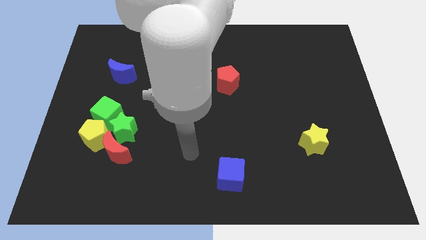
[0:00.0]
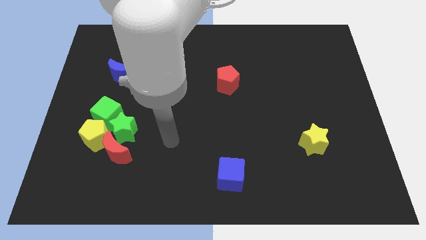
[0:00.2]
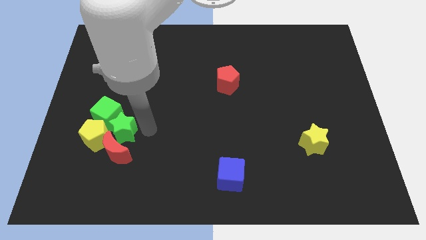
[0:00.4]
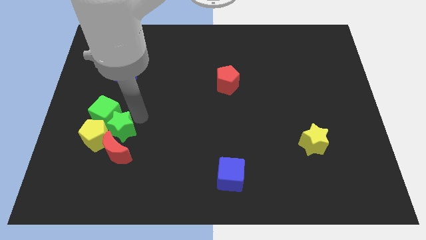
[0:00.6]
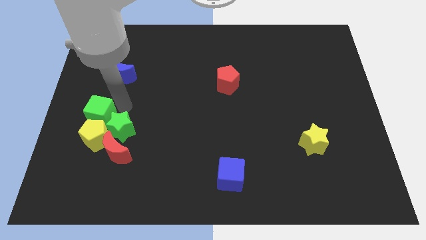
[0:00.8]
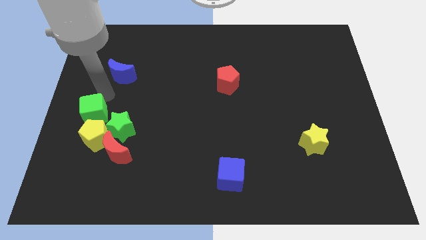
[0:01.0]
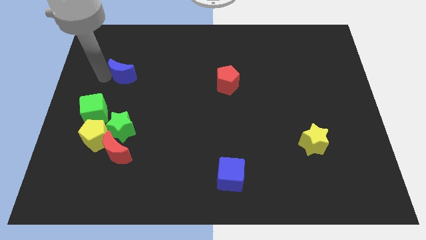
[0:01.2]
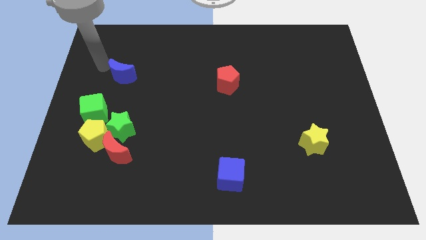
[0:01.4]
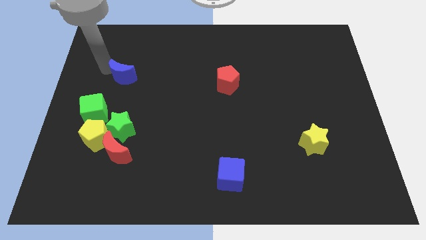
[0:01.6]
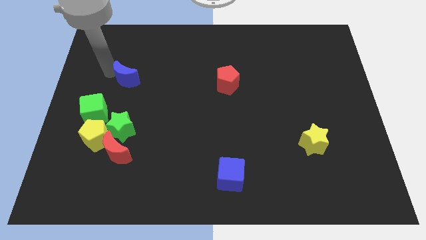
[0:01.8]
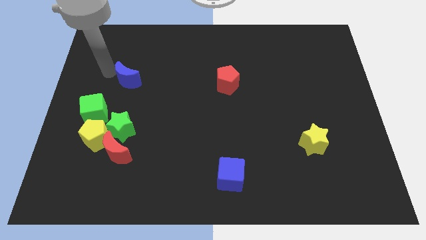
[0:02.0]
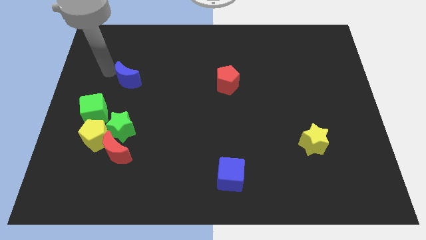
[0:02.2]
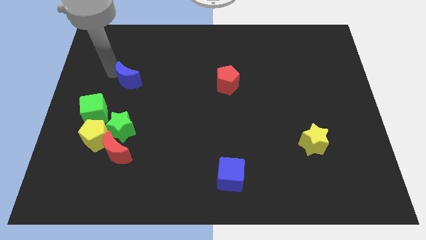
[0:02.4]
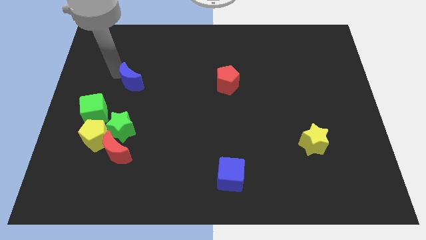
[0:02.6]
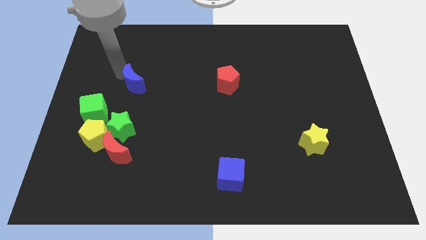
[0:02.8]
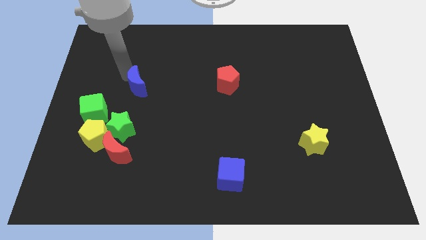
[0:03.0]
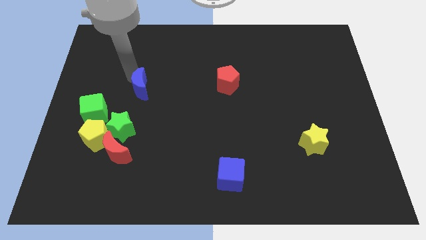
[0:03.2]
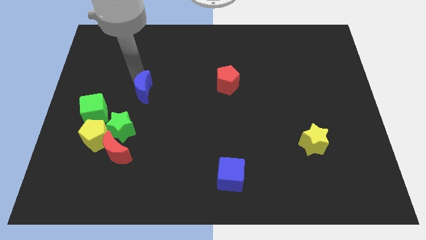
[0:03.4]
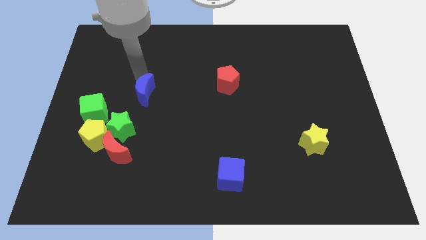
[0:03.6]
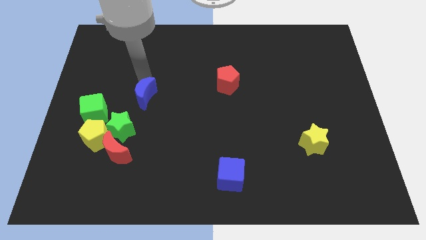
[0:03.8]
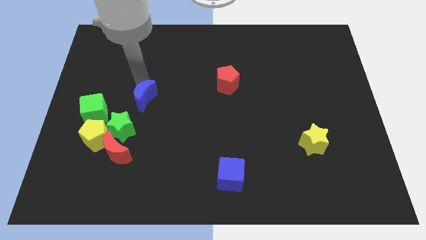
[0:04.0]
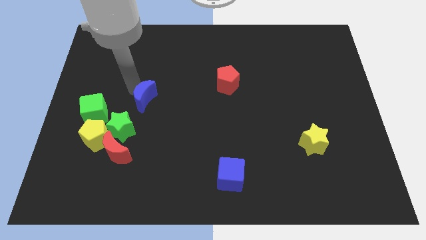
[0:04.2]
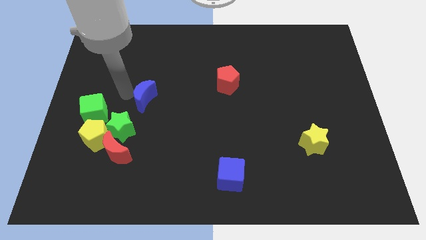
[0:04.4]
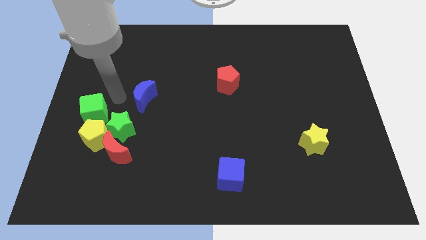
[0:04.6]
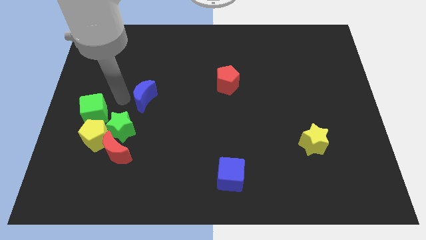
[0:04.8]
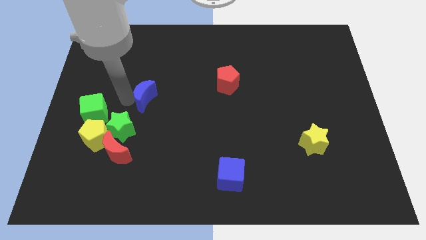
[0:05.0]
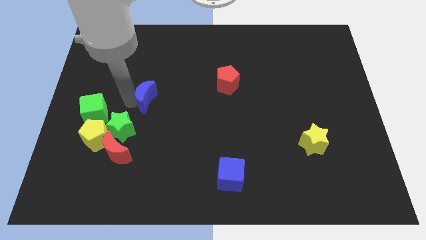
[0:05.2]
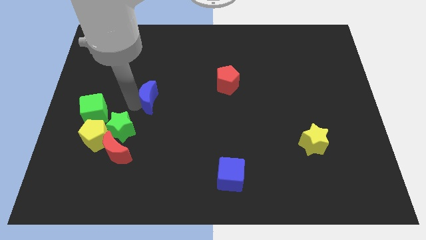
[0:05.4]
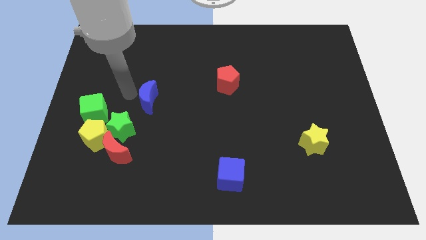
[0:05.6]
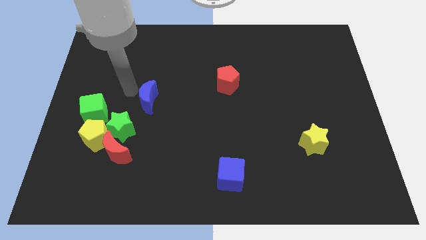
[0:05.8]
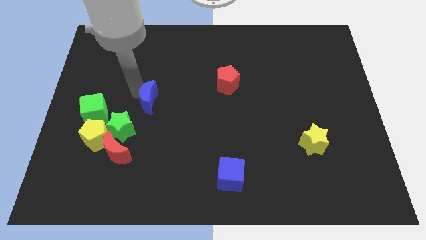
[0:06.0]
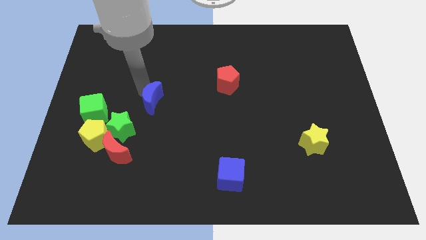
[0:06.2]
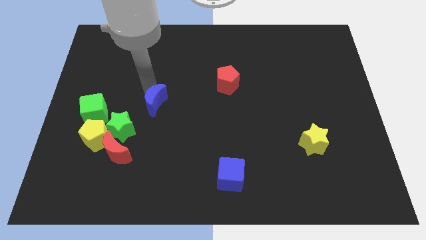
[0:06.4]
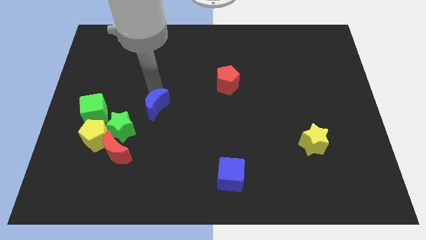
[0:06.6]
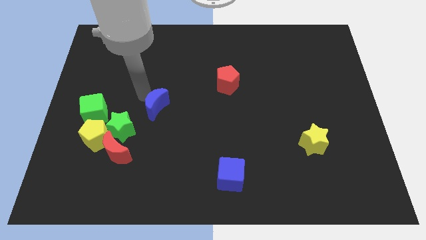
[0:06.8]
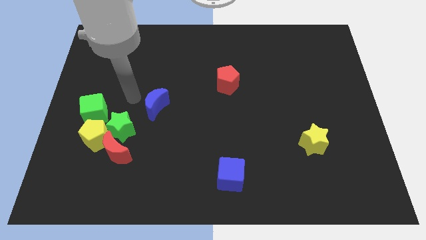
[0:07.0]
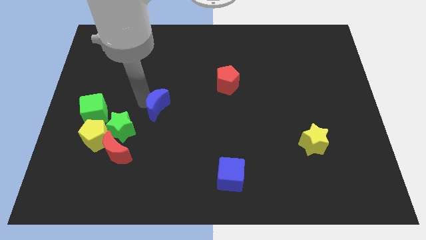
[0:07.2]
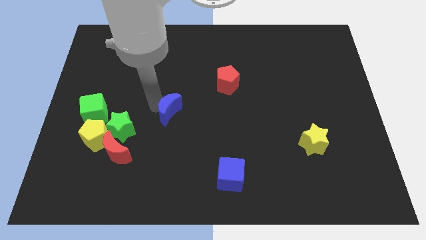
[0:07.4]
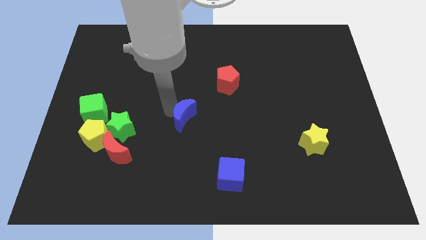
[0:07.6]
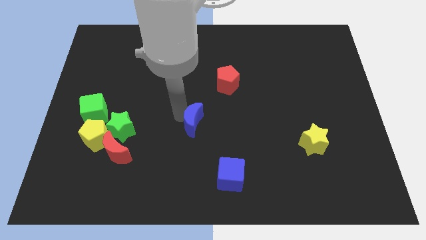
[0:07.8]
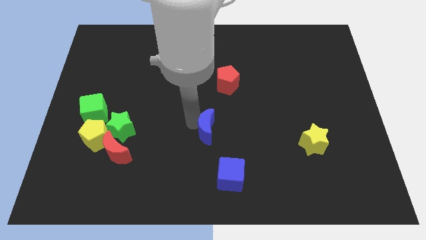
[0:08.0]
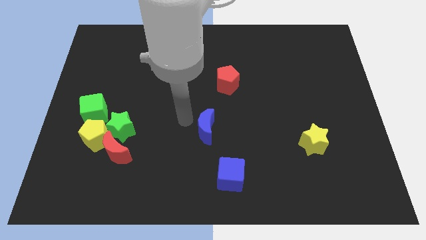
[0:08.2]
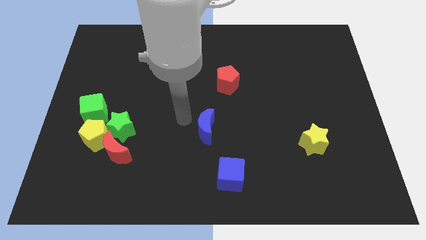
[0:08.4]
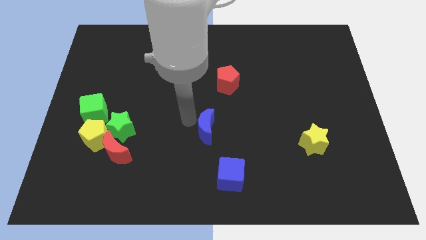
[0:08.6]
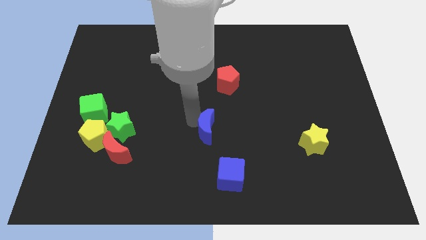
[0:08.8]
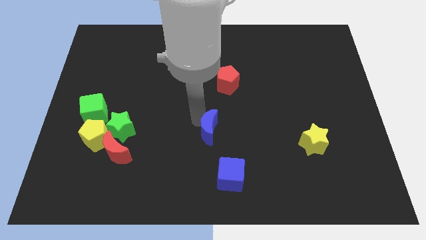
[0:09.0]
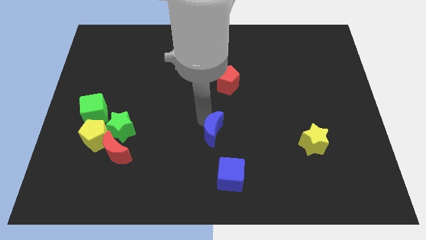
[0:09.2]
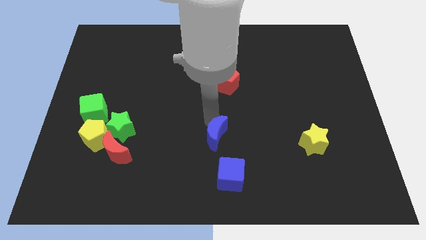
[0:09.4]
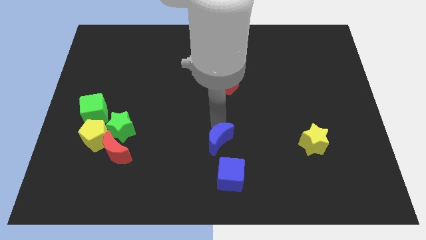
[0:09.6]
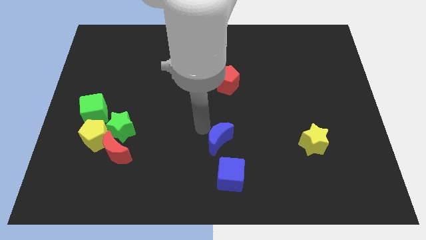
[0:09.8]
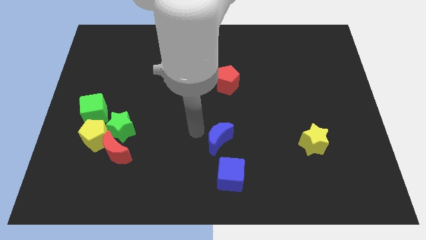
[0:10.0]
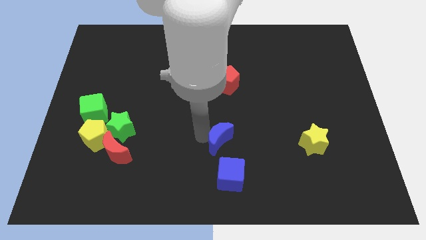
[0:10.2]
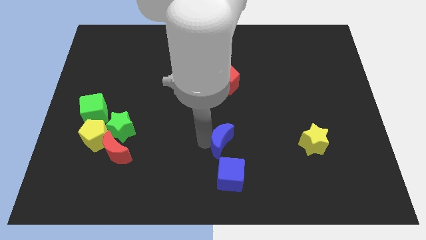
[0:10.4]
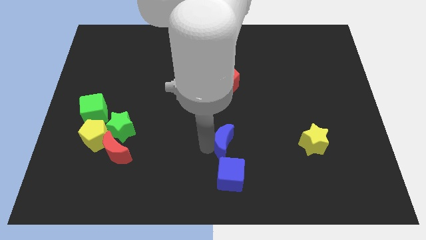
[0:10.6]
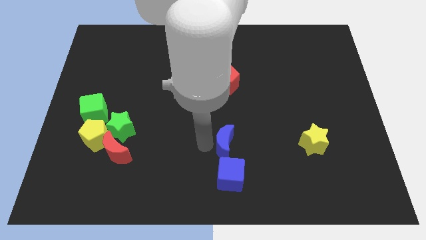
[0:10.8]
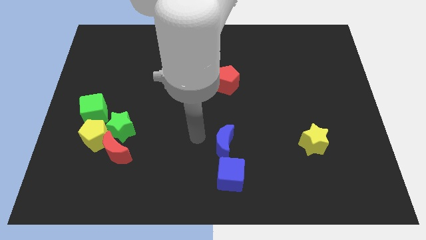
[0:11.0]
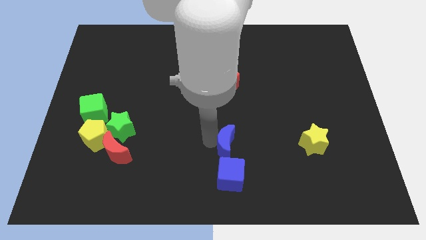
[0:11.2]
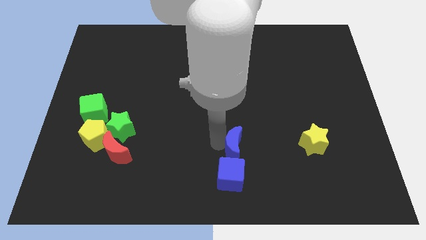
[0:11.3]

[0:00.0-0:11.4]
move the blue moon to the top right of the blue cube

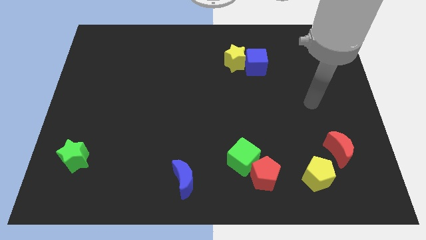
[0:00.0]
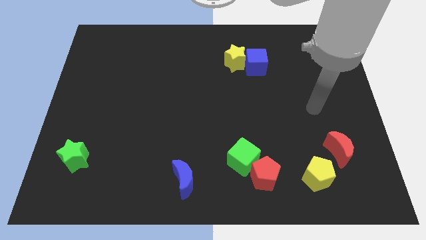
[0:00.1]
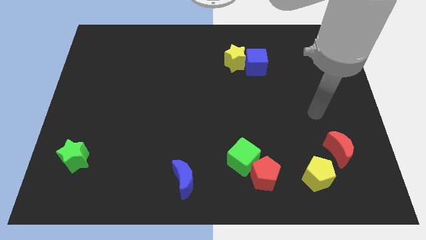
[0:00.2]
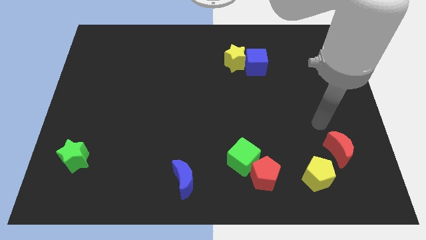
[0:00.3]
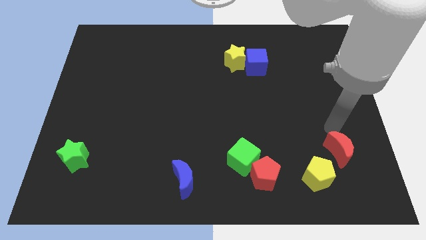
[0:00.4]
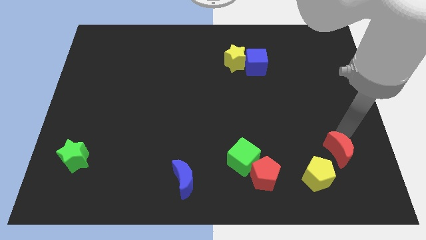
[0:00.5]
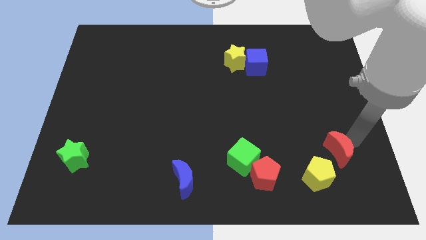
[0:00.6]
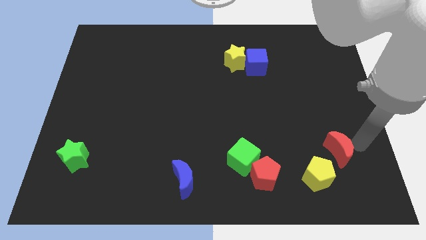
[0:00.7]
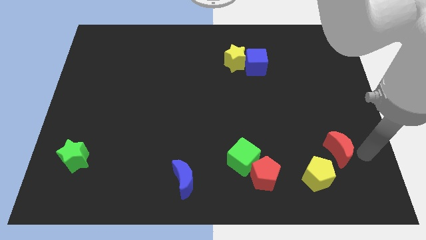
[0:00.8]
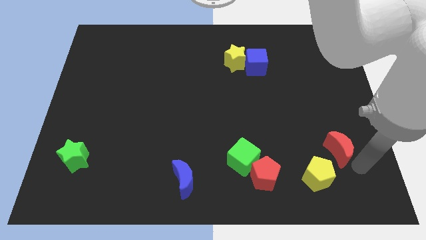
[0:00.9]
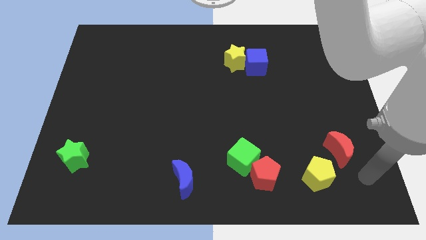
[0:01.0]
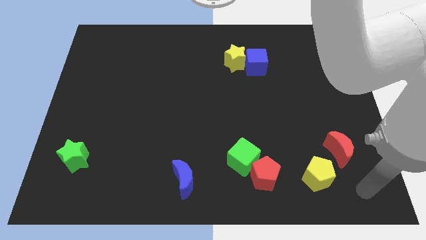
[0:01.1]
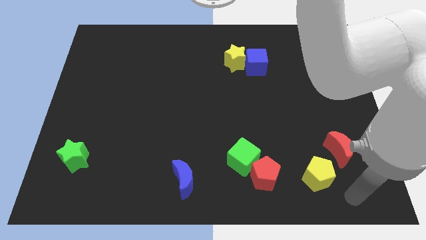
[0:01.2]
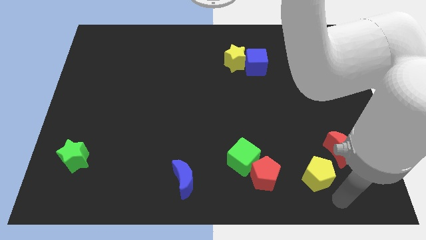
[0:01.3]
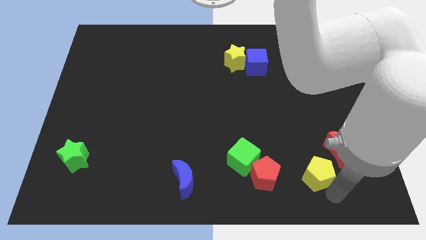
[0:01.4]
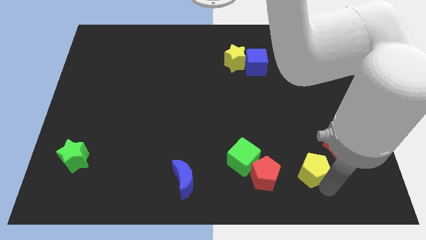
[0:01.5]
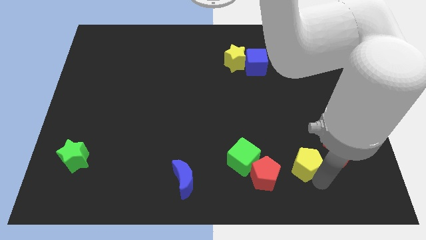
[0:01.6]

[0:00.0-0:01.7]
put the yellow pentagon just left of the red moon

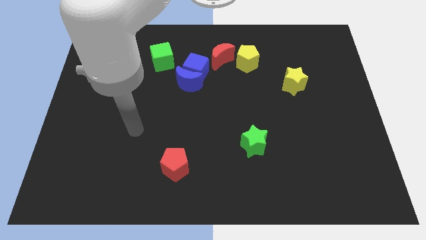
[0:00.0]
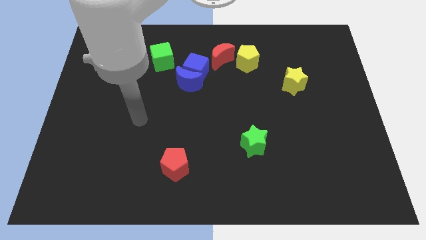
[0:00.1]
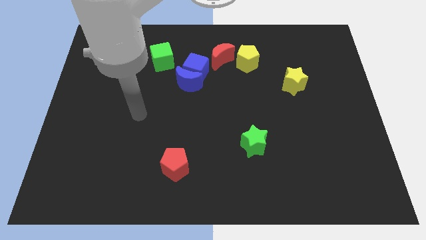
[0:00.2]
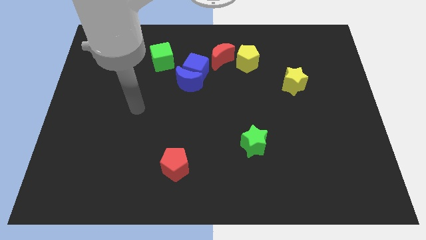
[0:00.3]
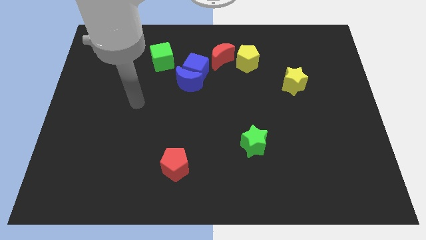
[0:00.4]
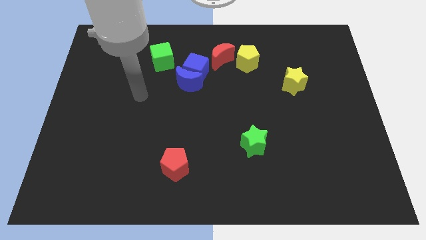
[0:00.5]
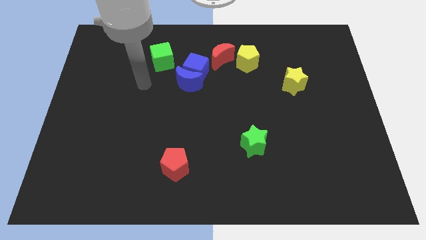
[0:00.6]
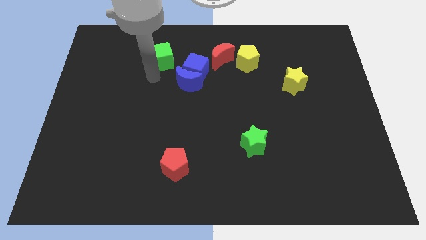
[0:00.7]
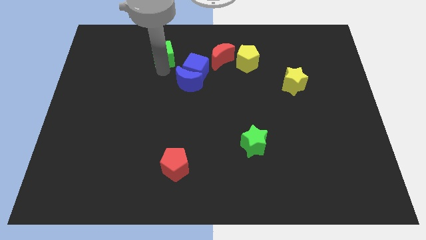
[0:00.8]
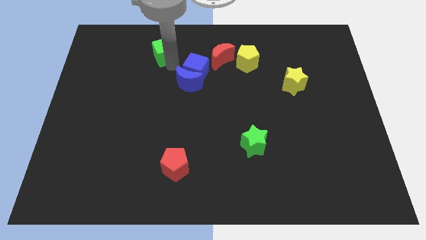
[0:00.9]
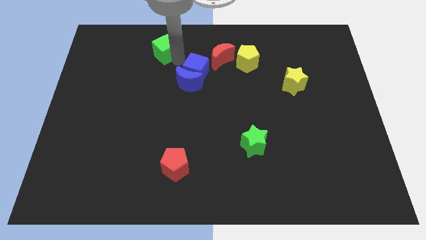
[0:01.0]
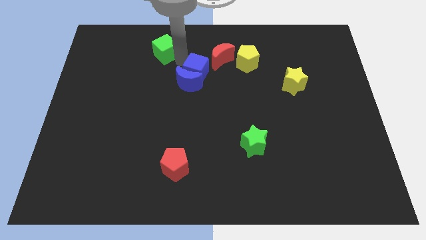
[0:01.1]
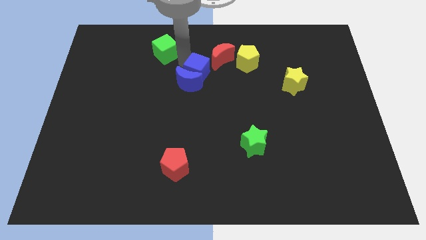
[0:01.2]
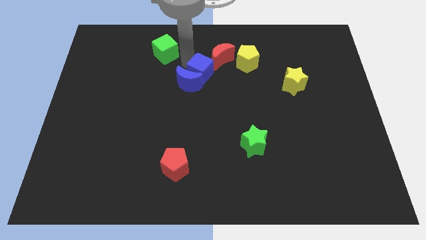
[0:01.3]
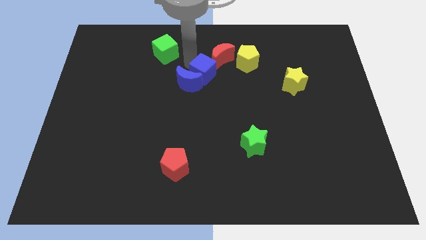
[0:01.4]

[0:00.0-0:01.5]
put the blue cube below the red moon
